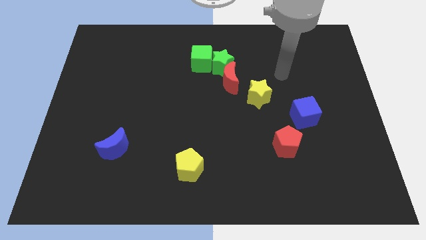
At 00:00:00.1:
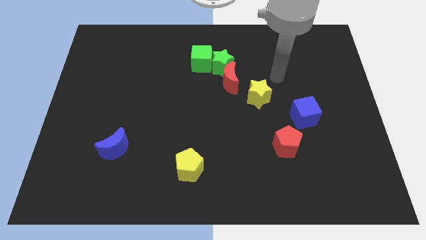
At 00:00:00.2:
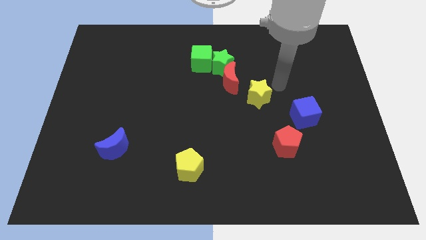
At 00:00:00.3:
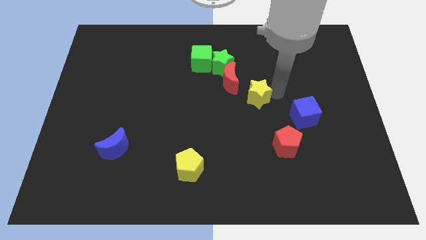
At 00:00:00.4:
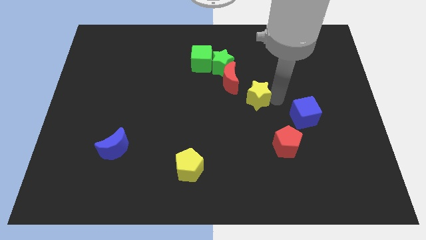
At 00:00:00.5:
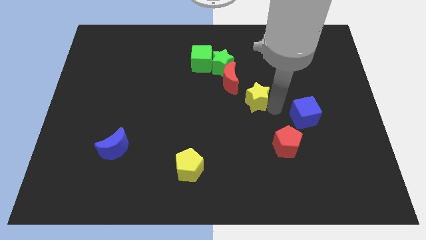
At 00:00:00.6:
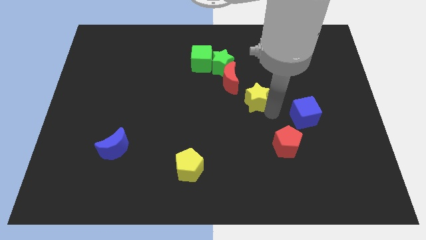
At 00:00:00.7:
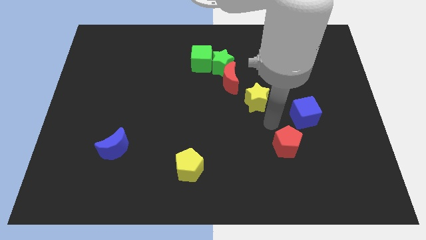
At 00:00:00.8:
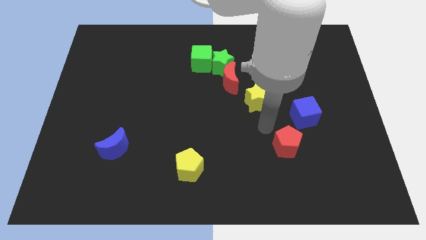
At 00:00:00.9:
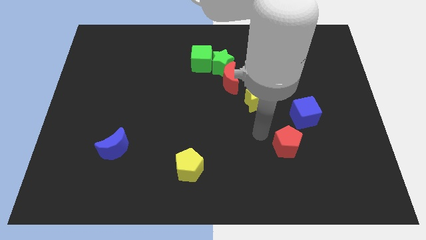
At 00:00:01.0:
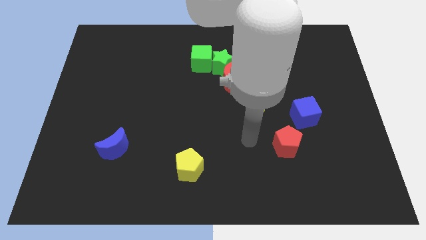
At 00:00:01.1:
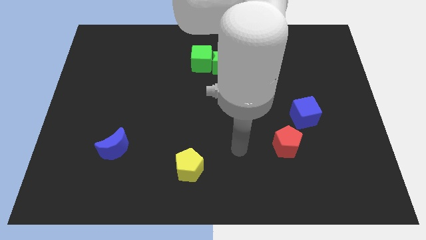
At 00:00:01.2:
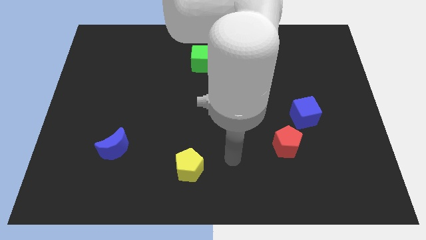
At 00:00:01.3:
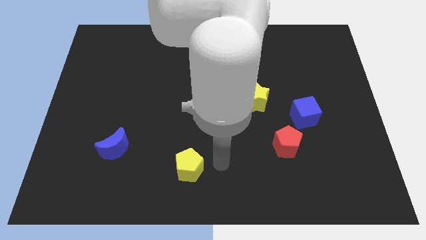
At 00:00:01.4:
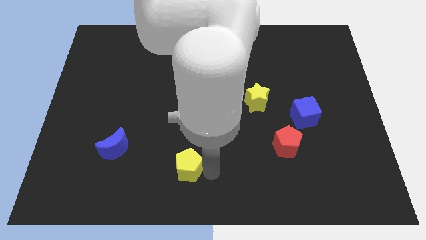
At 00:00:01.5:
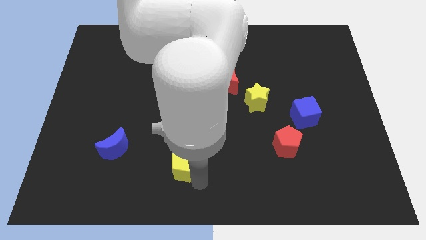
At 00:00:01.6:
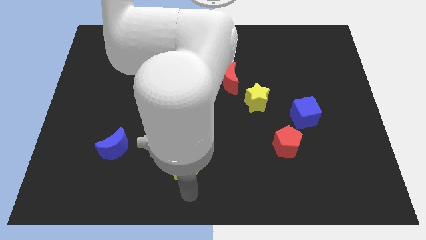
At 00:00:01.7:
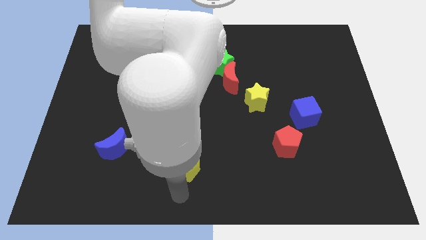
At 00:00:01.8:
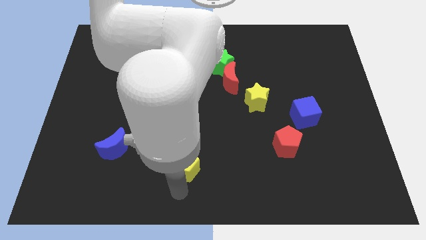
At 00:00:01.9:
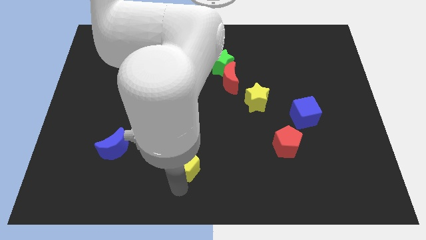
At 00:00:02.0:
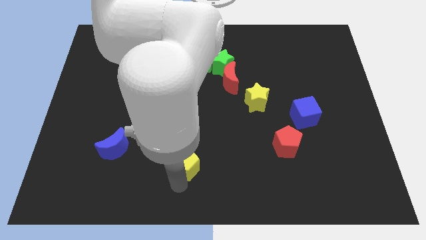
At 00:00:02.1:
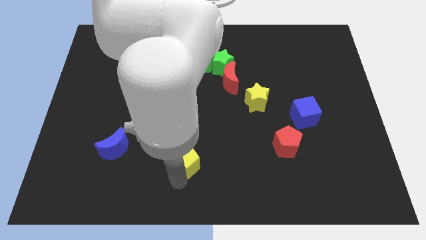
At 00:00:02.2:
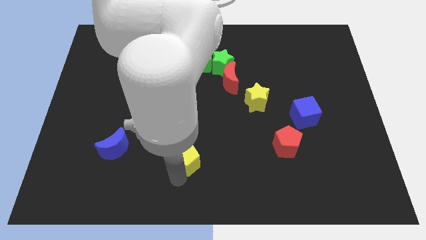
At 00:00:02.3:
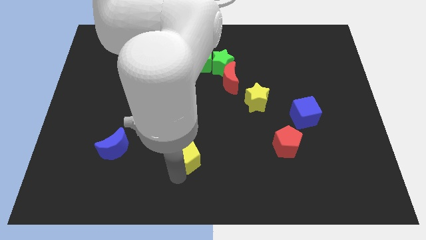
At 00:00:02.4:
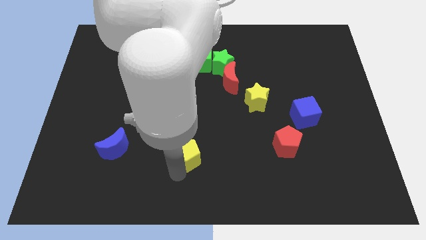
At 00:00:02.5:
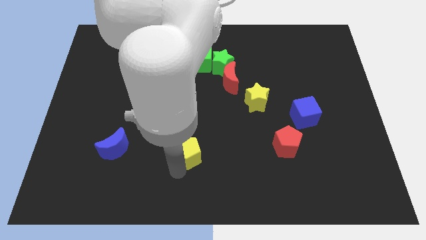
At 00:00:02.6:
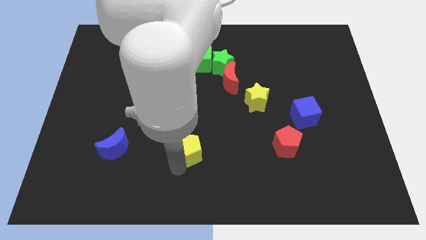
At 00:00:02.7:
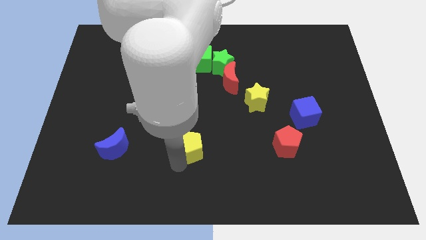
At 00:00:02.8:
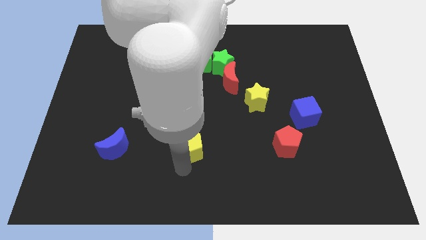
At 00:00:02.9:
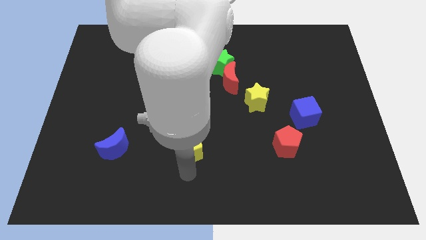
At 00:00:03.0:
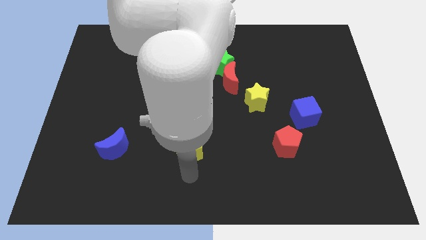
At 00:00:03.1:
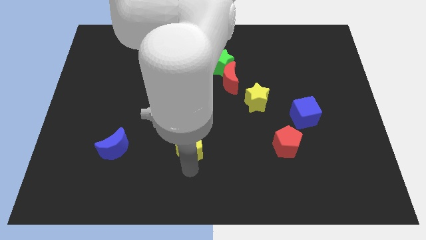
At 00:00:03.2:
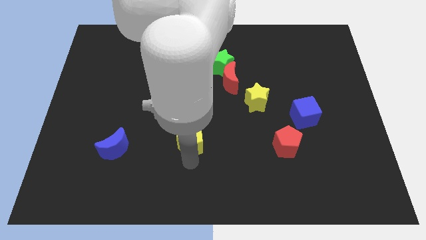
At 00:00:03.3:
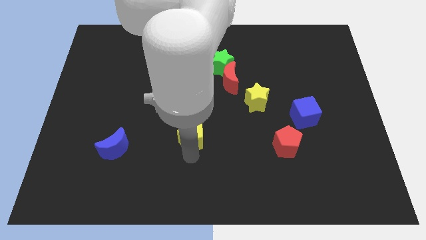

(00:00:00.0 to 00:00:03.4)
push the yellow pentagon slightly up

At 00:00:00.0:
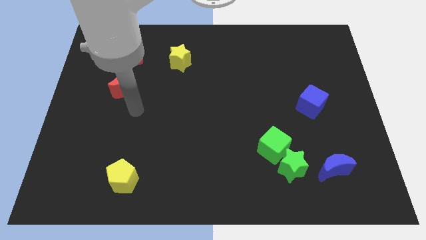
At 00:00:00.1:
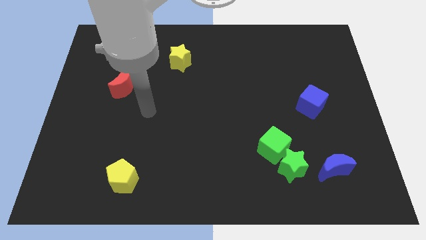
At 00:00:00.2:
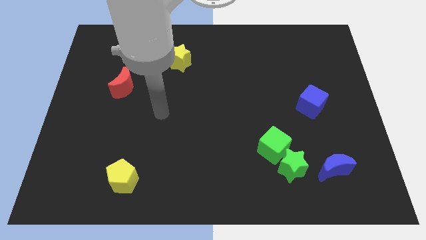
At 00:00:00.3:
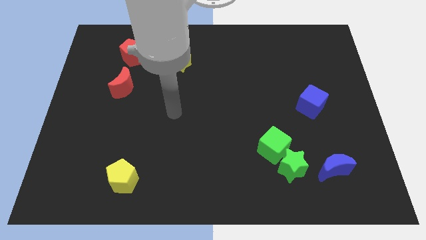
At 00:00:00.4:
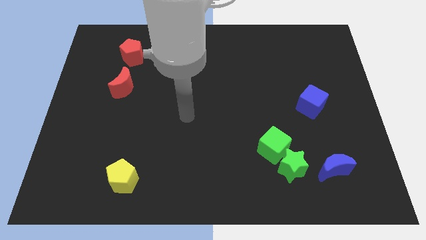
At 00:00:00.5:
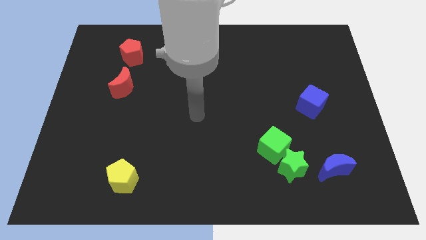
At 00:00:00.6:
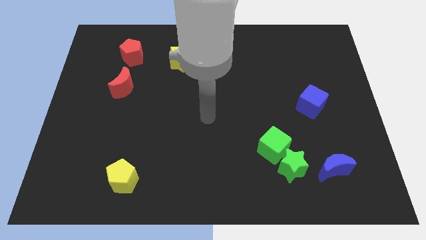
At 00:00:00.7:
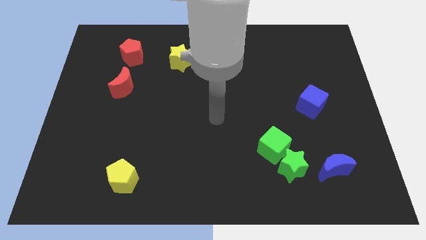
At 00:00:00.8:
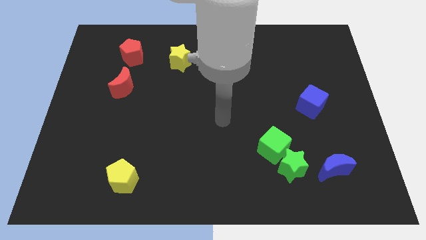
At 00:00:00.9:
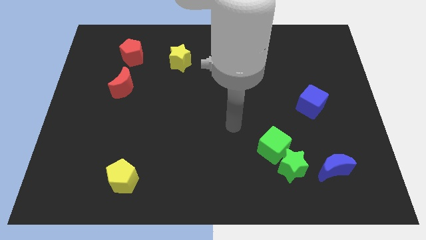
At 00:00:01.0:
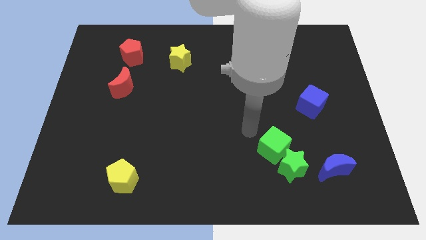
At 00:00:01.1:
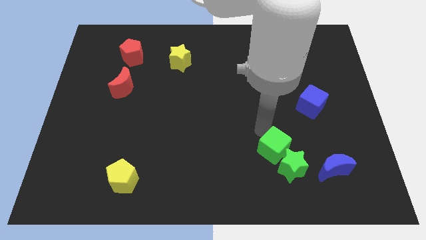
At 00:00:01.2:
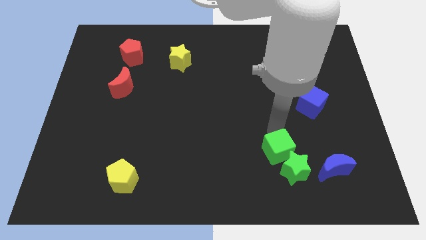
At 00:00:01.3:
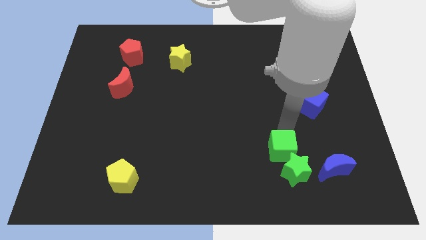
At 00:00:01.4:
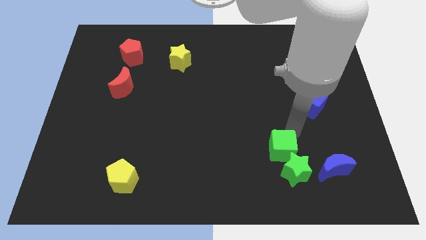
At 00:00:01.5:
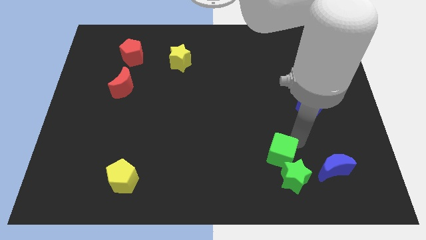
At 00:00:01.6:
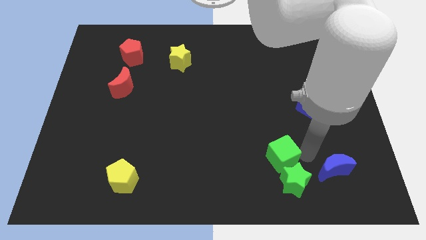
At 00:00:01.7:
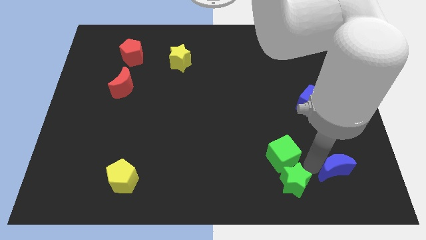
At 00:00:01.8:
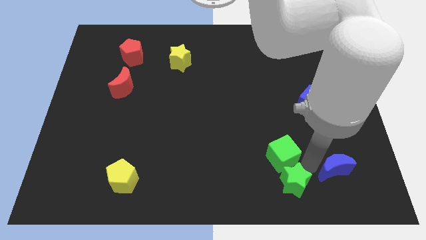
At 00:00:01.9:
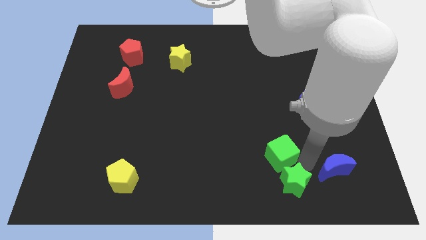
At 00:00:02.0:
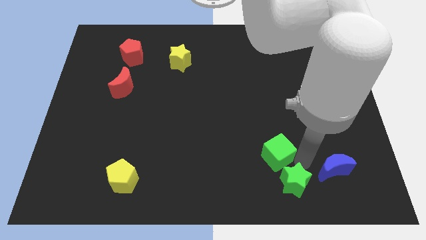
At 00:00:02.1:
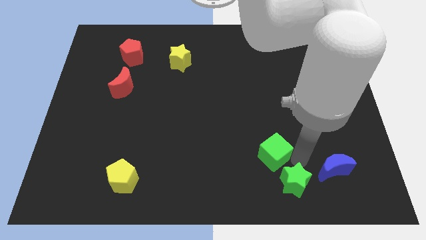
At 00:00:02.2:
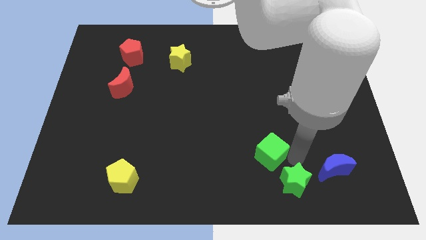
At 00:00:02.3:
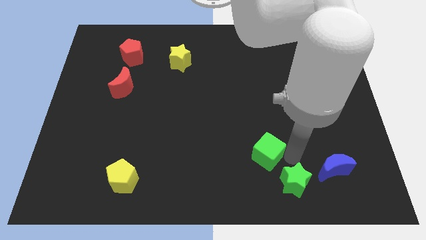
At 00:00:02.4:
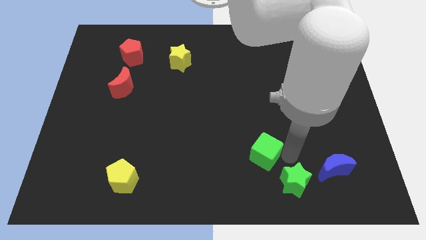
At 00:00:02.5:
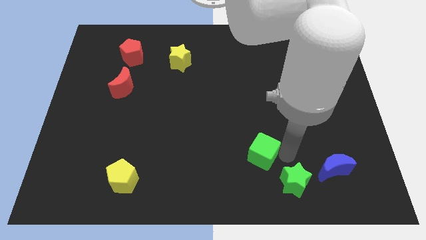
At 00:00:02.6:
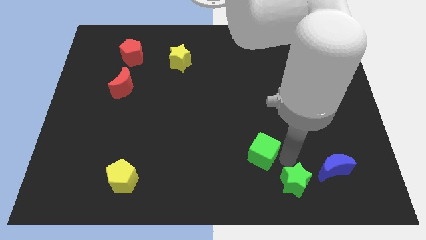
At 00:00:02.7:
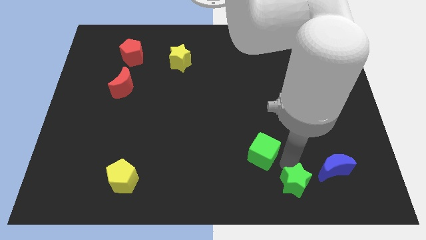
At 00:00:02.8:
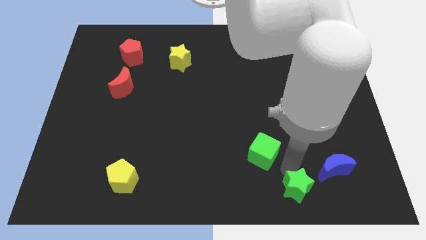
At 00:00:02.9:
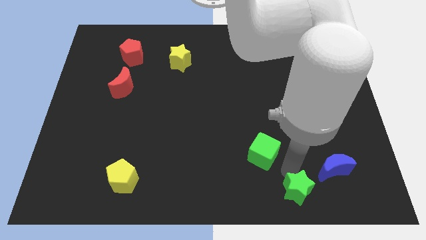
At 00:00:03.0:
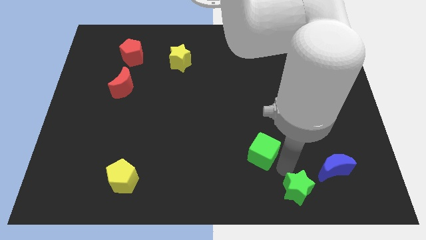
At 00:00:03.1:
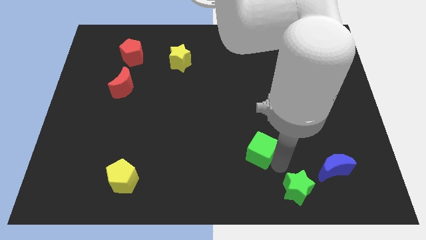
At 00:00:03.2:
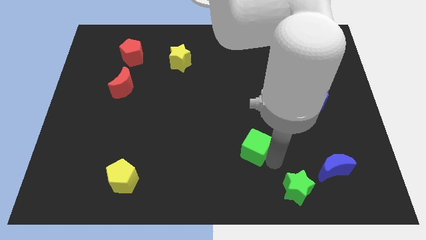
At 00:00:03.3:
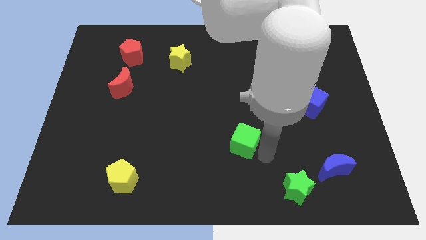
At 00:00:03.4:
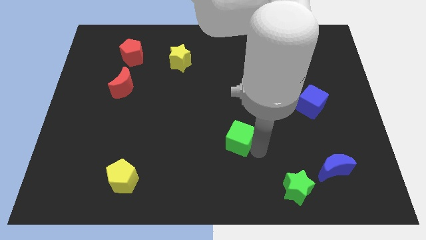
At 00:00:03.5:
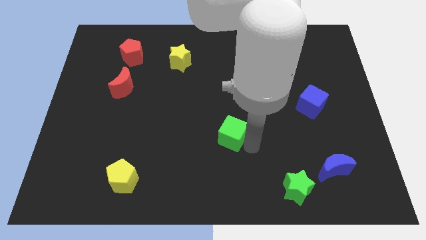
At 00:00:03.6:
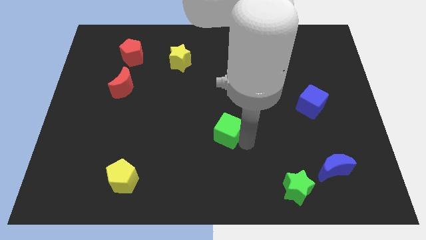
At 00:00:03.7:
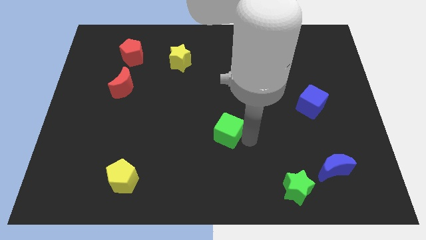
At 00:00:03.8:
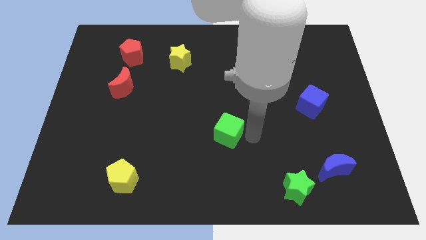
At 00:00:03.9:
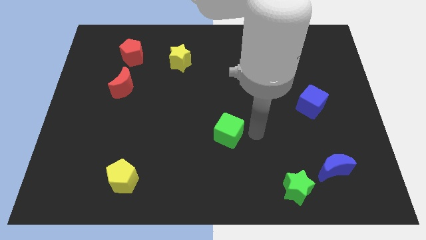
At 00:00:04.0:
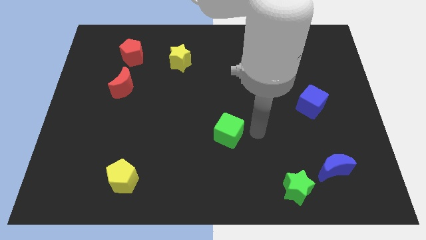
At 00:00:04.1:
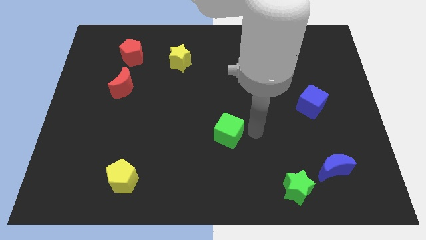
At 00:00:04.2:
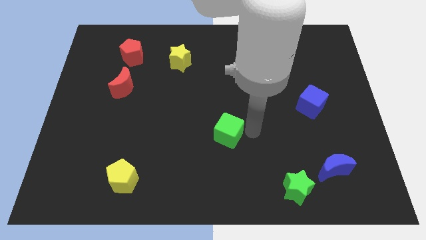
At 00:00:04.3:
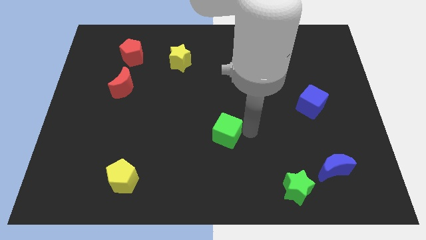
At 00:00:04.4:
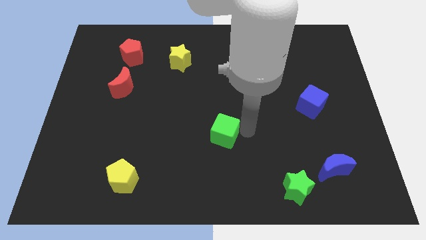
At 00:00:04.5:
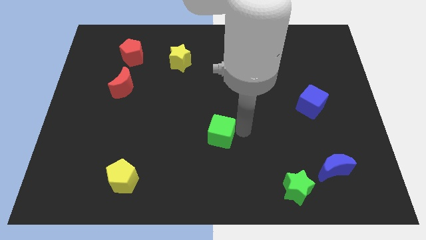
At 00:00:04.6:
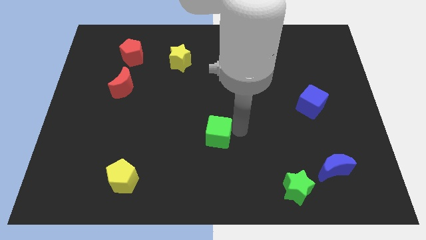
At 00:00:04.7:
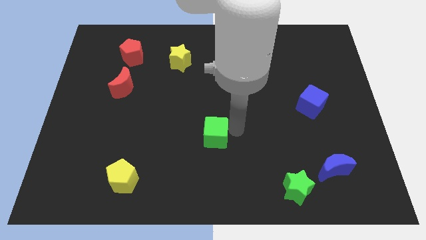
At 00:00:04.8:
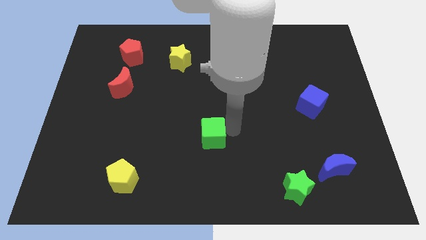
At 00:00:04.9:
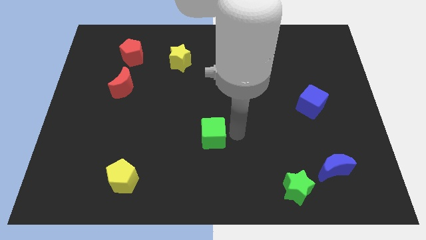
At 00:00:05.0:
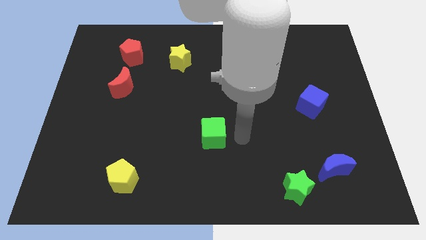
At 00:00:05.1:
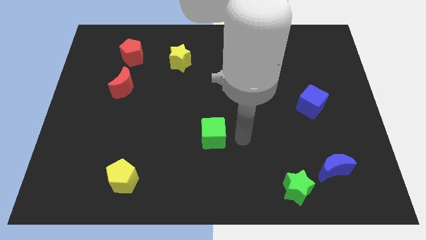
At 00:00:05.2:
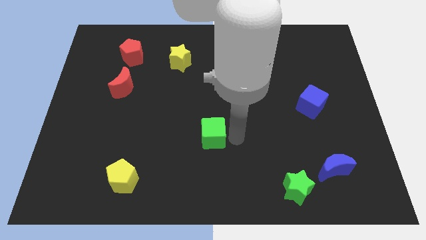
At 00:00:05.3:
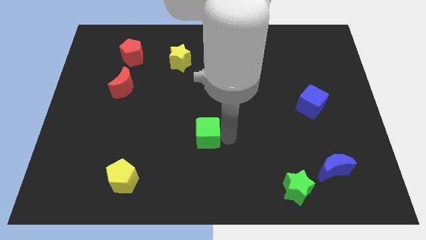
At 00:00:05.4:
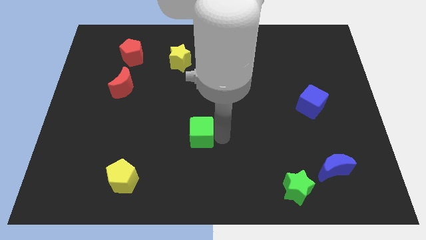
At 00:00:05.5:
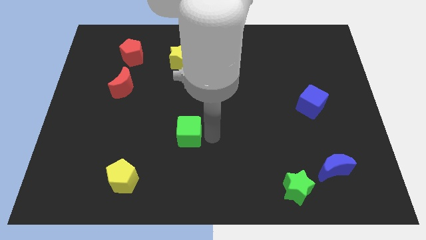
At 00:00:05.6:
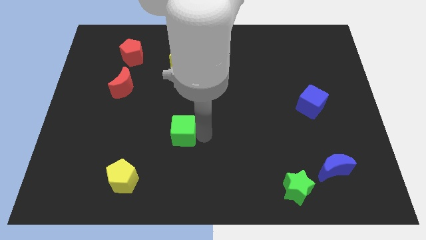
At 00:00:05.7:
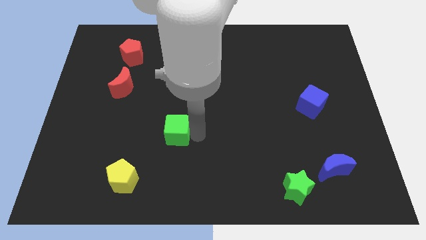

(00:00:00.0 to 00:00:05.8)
slide the green cube to the left
